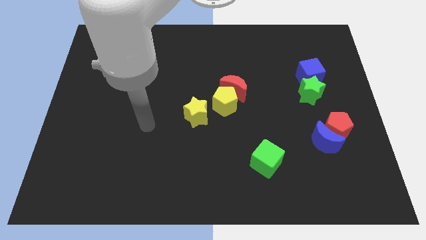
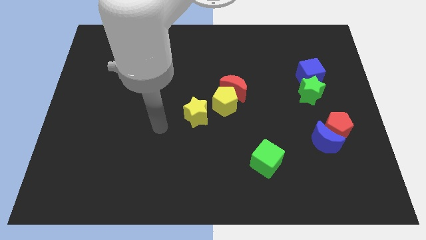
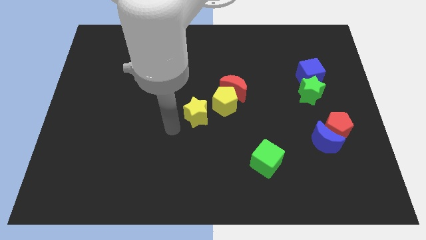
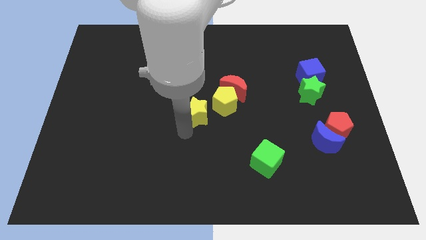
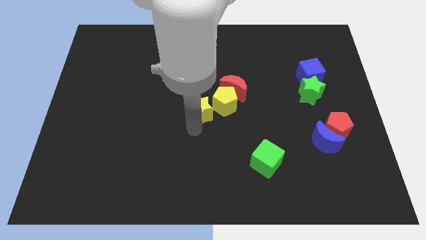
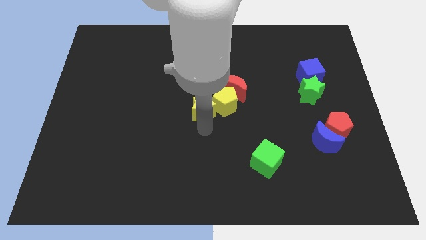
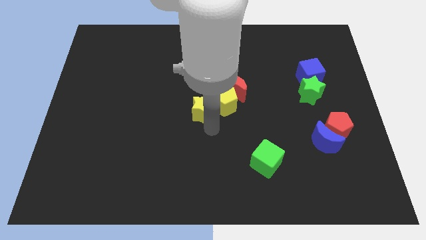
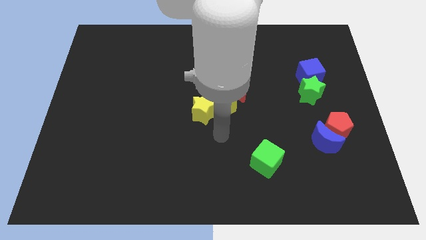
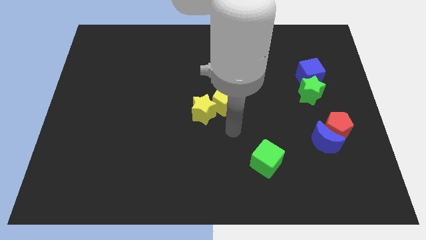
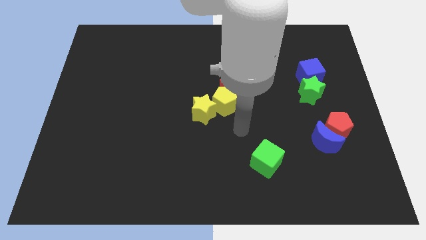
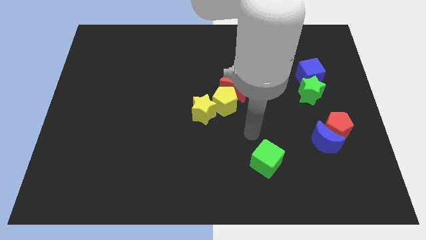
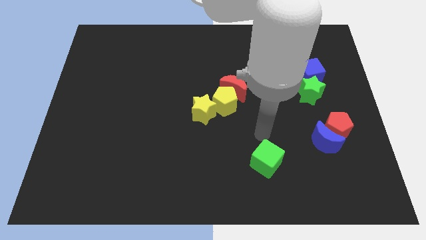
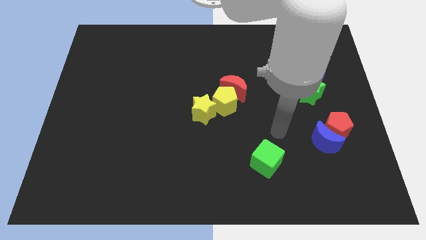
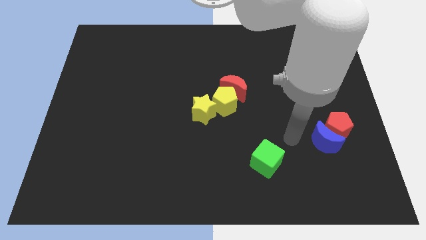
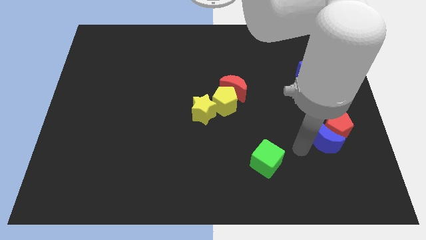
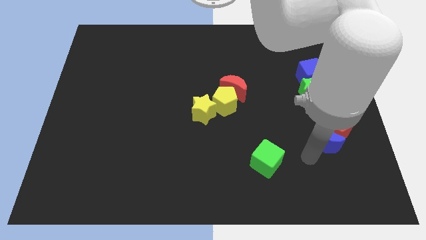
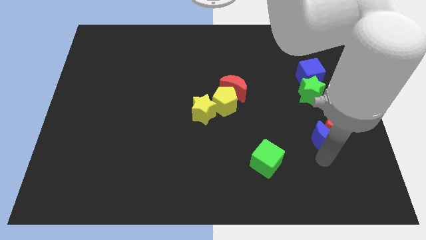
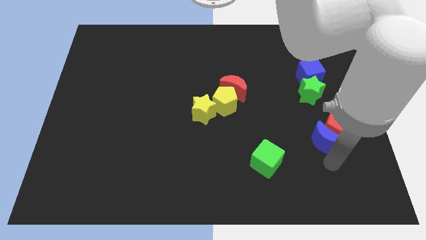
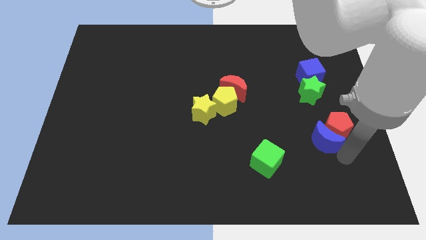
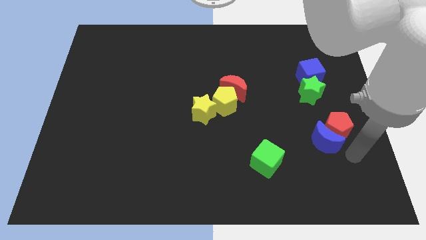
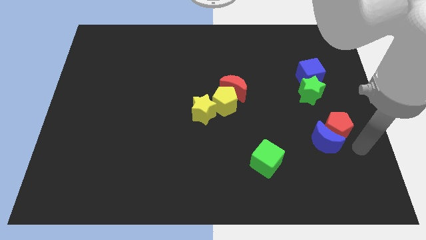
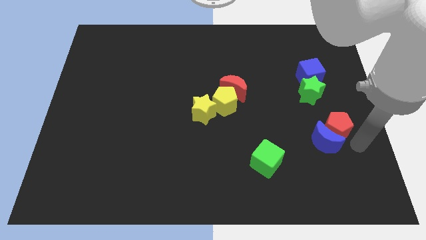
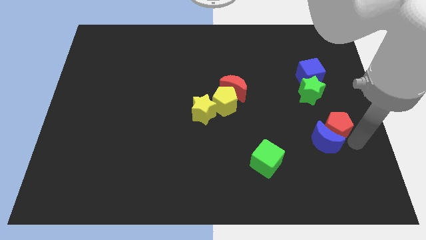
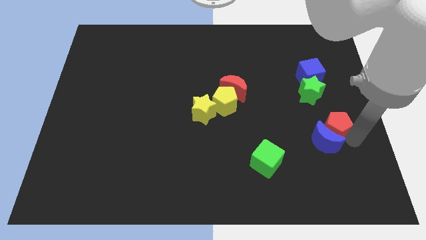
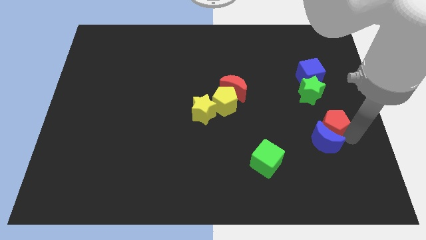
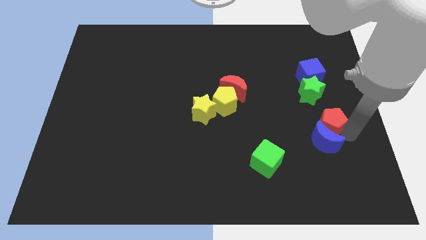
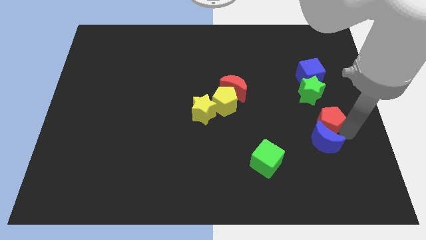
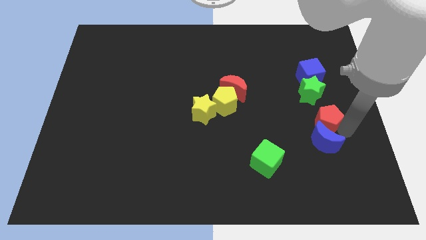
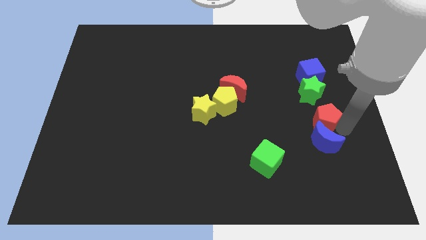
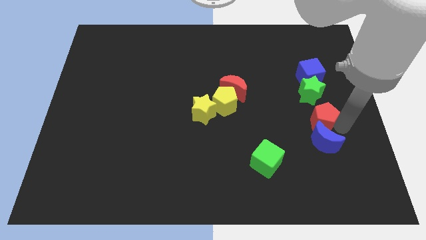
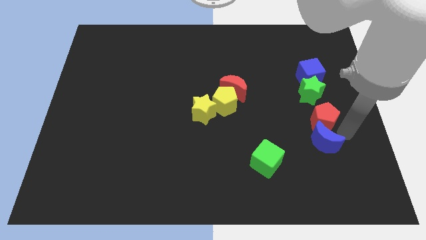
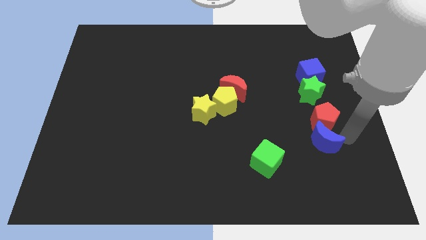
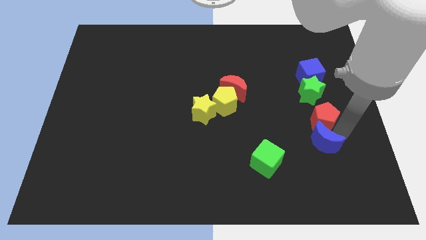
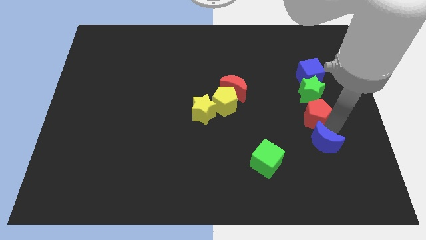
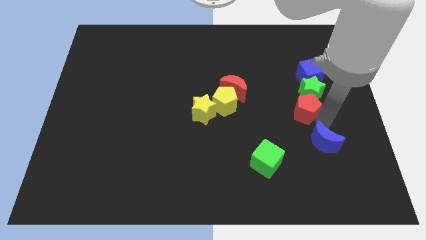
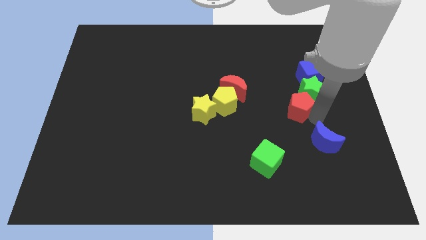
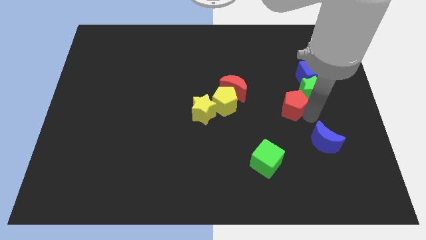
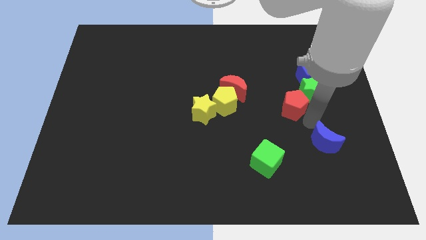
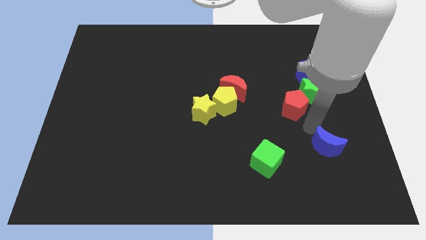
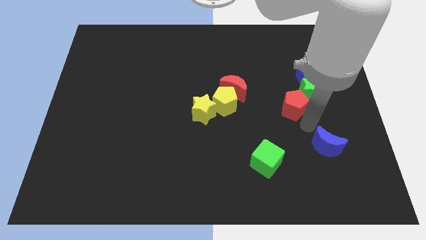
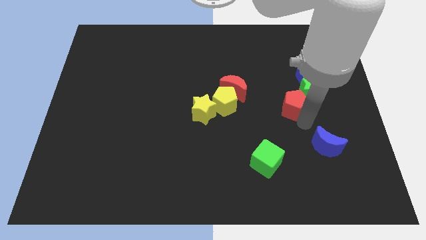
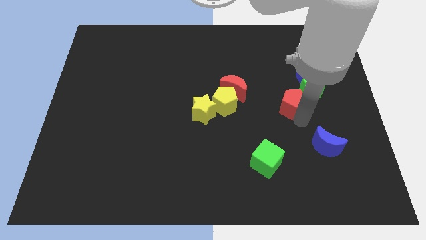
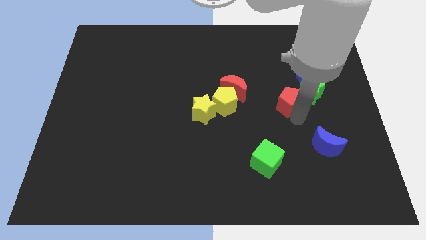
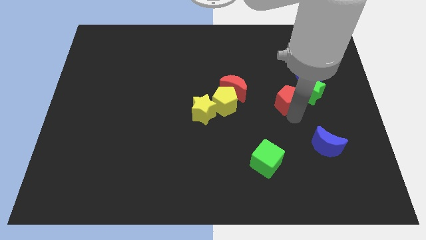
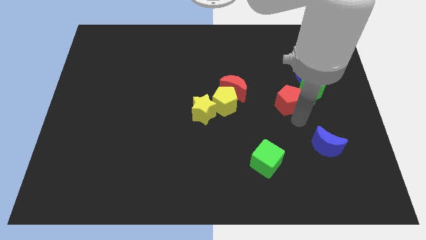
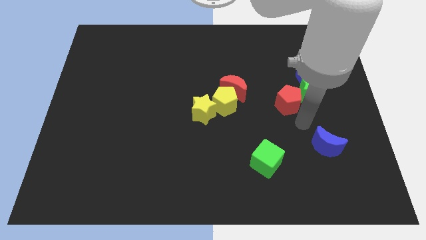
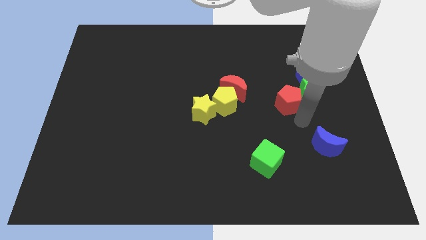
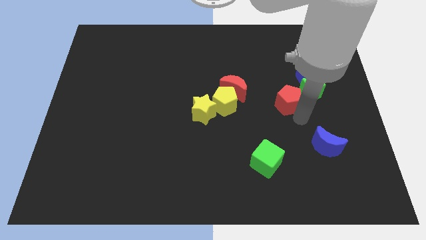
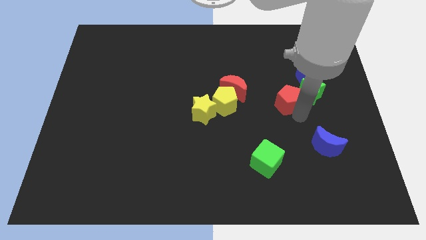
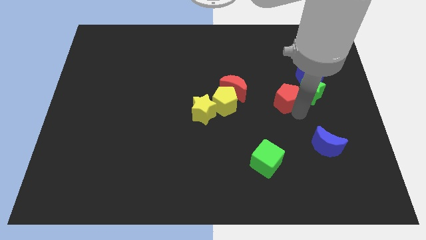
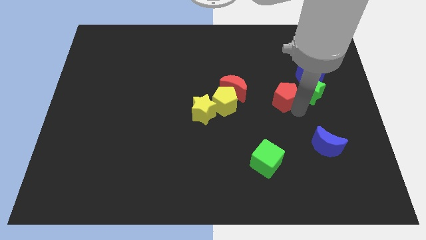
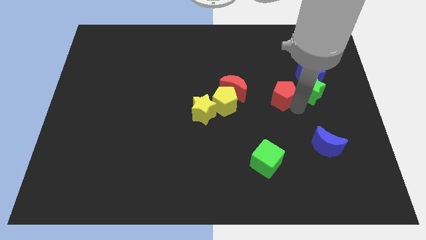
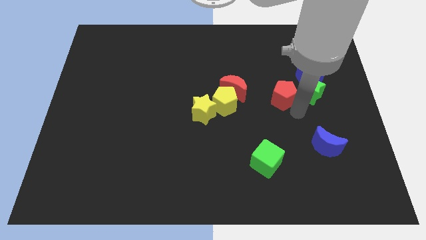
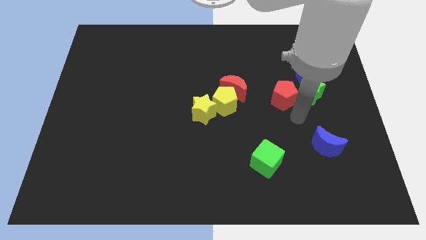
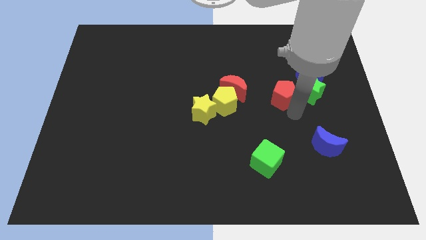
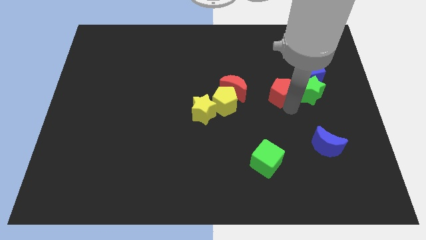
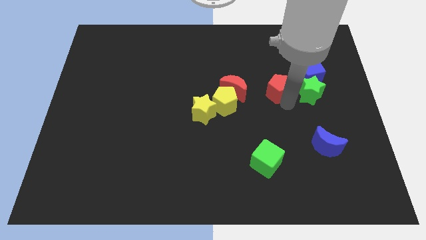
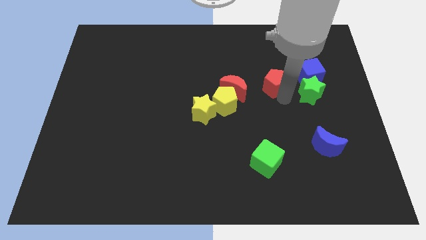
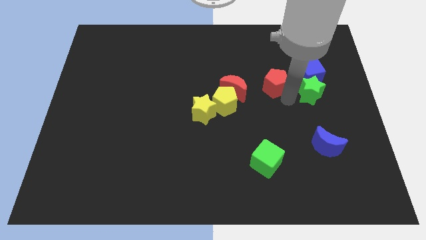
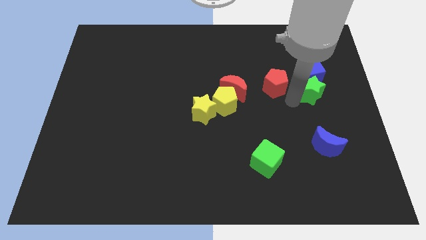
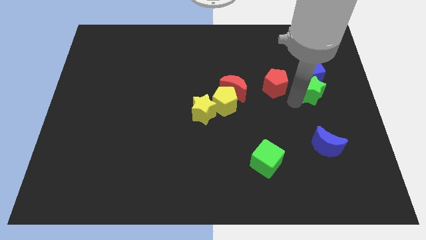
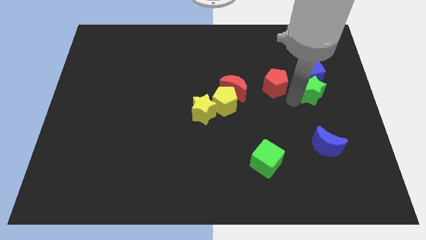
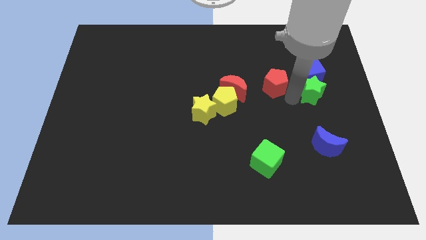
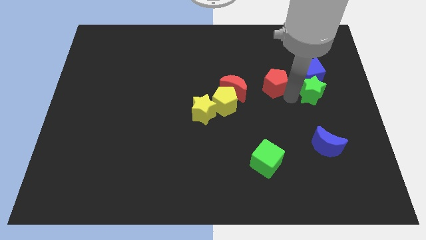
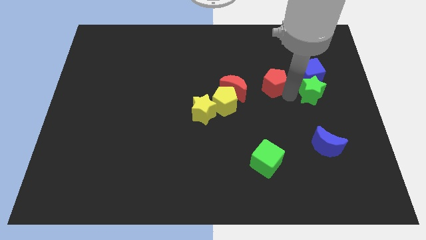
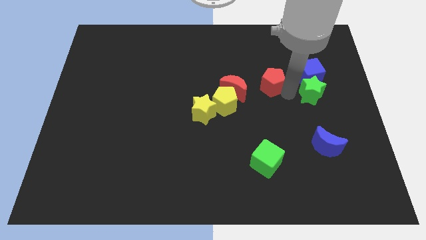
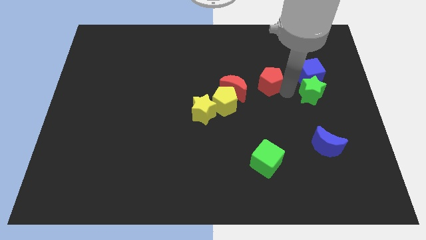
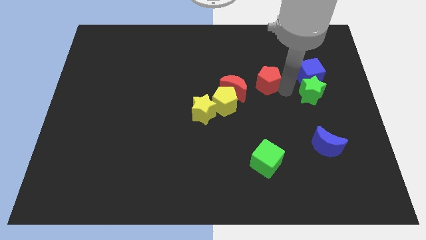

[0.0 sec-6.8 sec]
move the red pentagon up and to the left

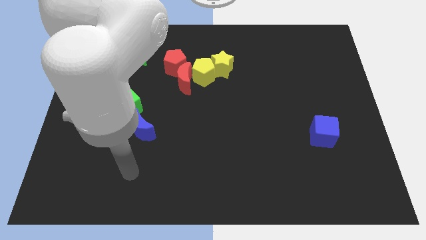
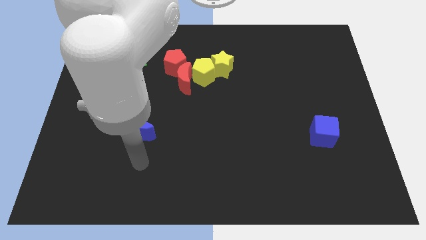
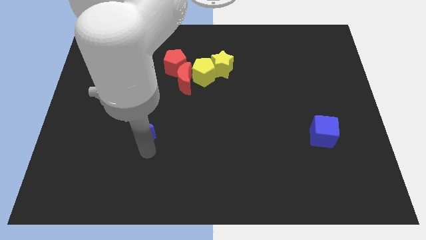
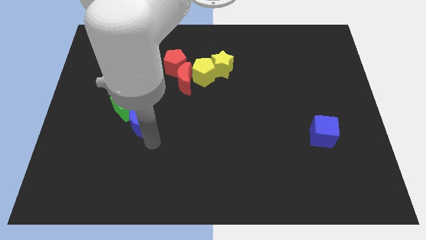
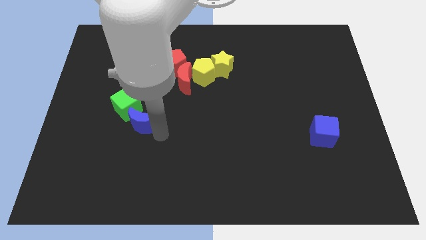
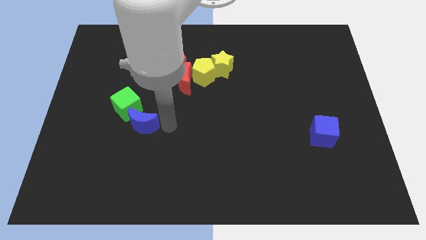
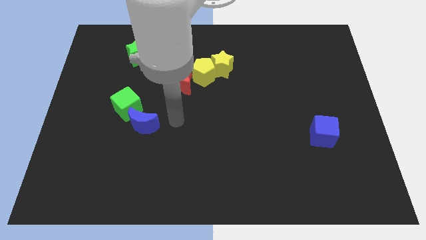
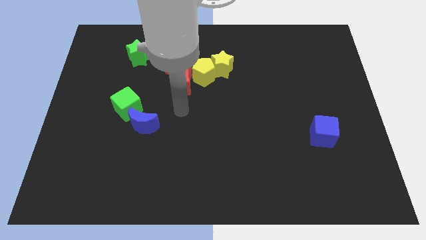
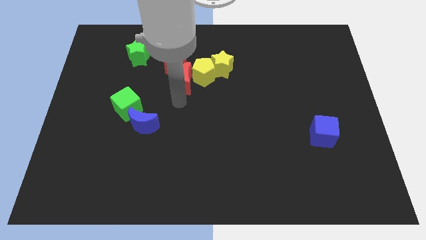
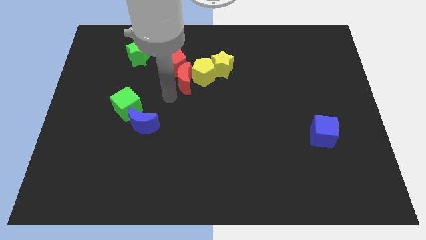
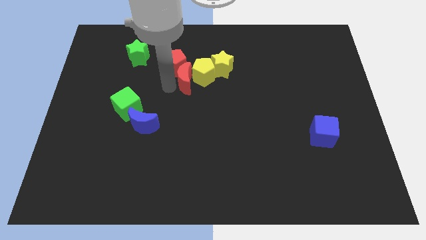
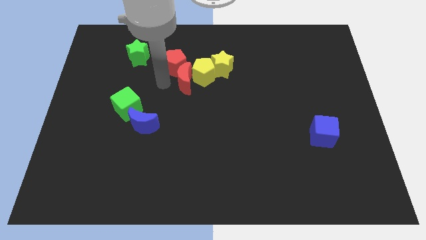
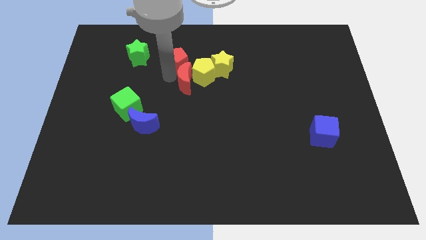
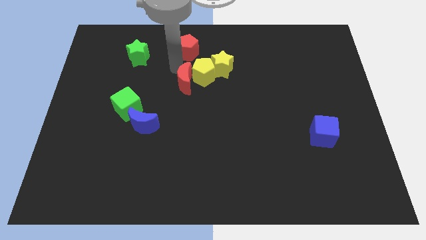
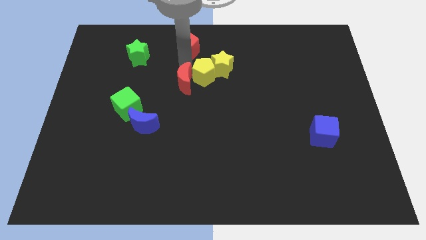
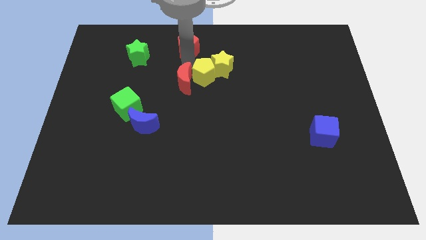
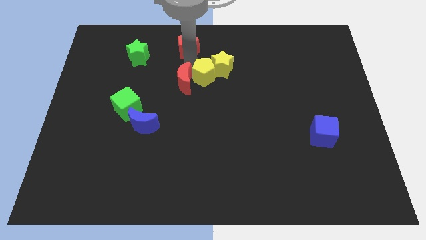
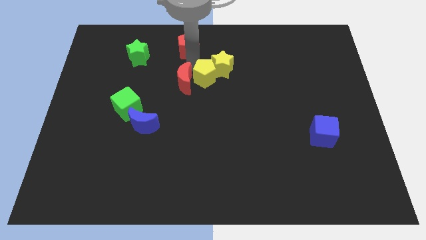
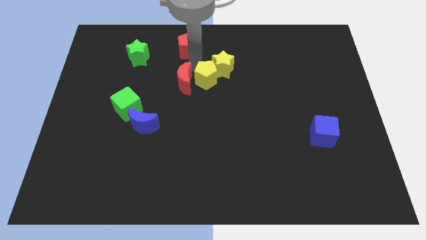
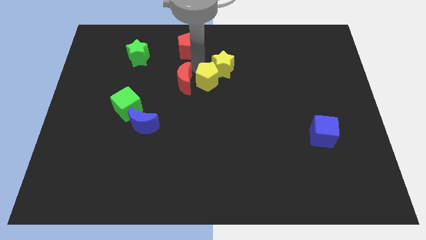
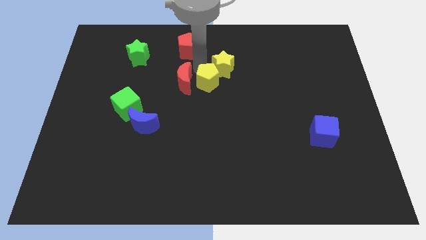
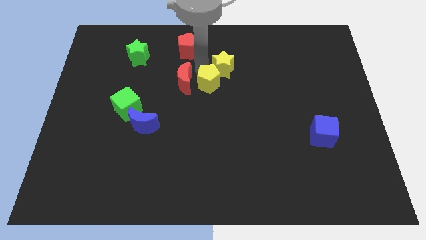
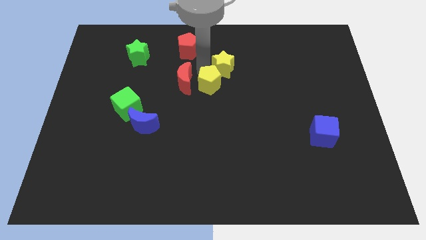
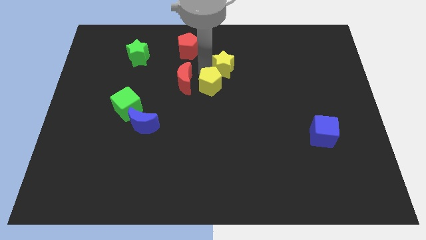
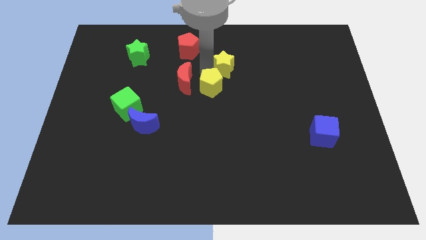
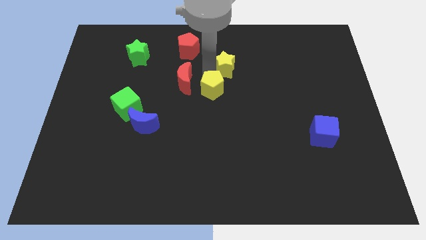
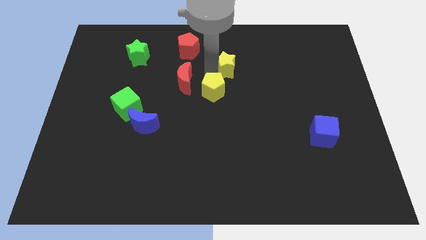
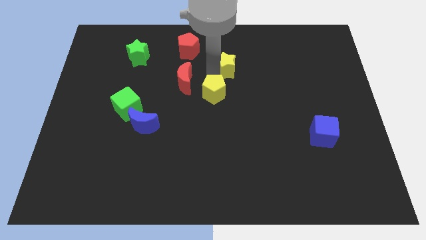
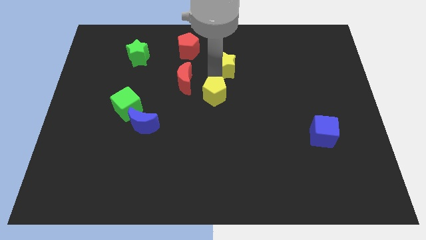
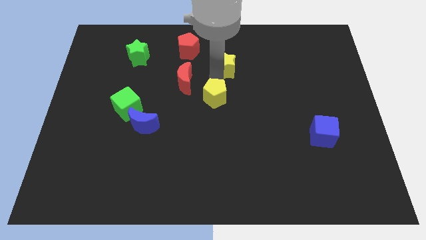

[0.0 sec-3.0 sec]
move the yellow pentagon down and then to the right somewhat
